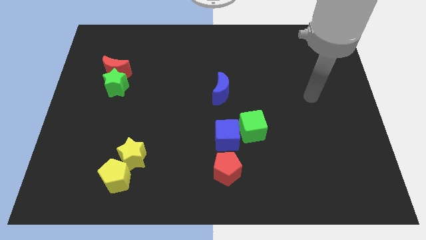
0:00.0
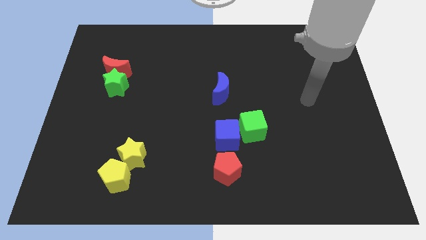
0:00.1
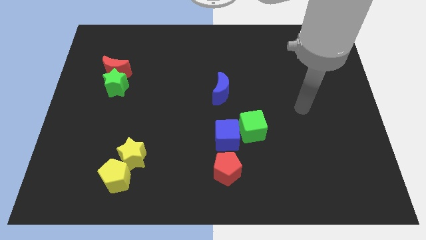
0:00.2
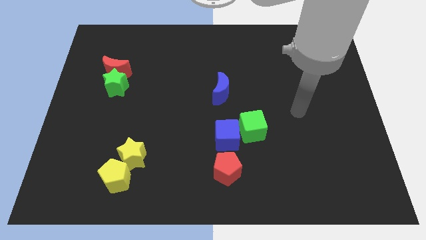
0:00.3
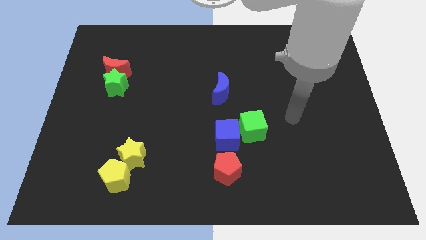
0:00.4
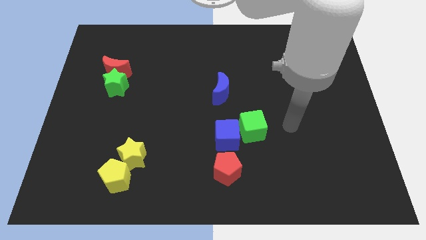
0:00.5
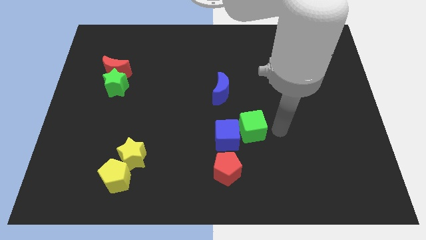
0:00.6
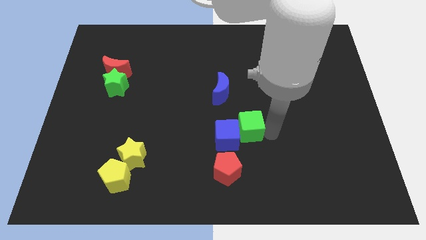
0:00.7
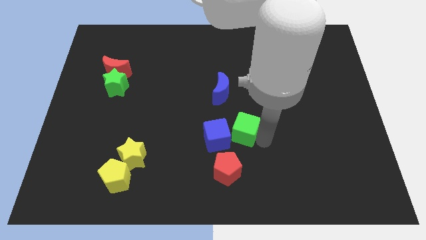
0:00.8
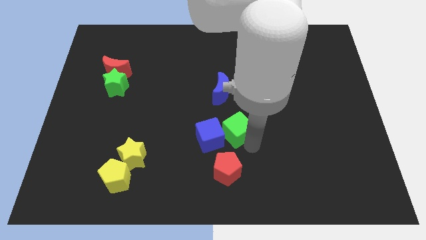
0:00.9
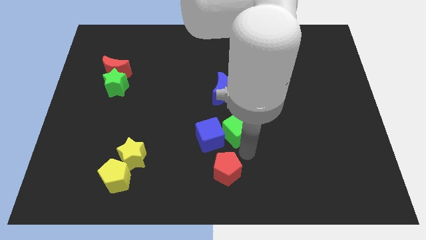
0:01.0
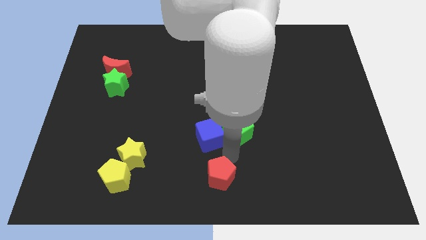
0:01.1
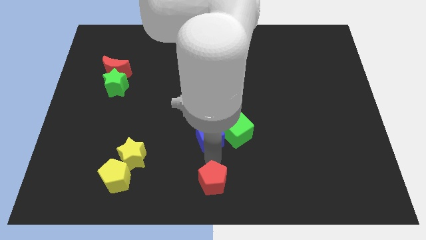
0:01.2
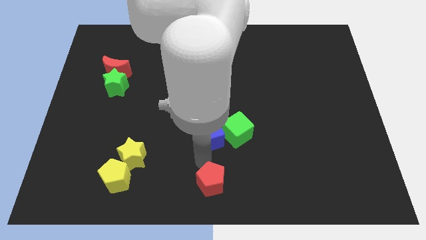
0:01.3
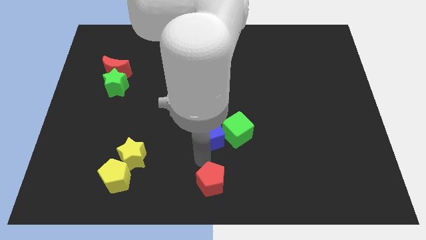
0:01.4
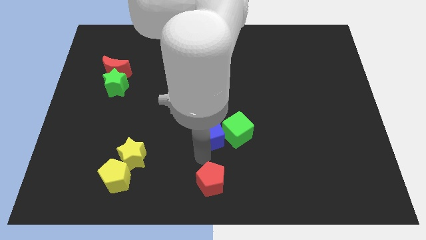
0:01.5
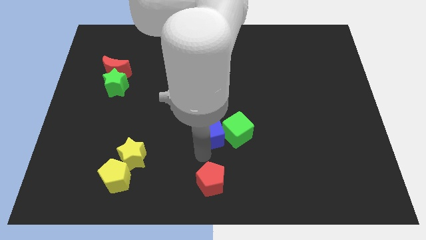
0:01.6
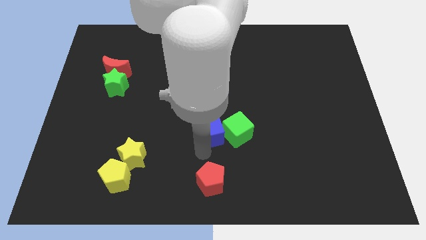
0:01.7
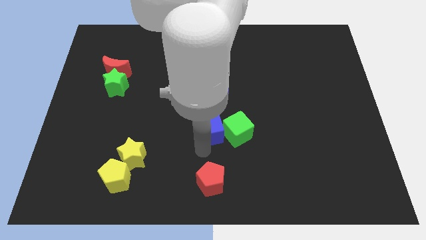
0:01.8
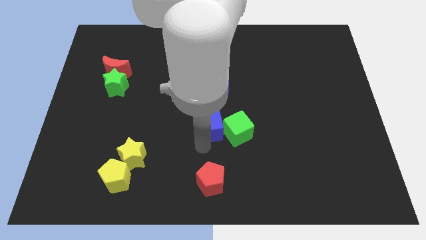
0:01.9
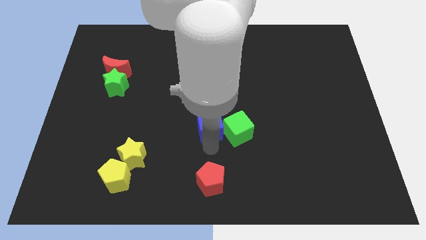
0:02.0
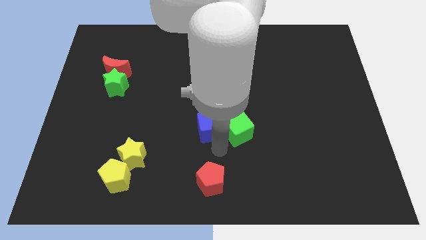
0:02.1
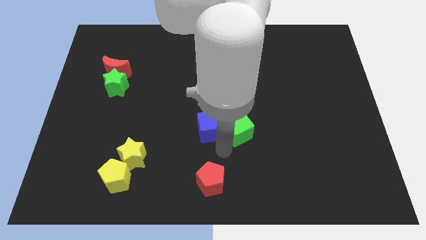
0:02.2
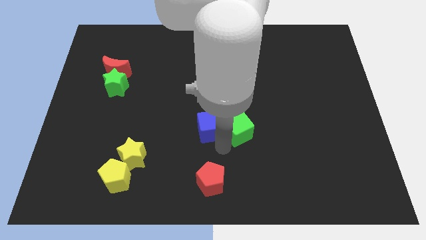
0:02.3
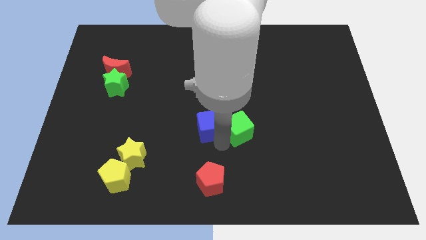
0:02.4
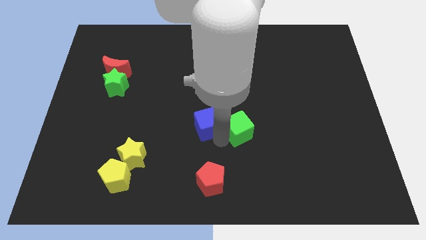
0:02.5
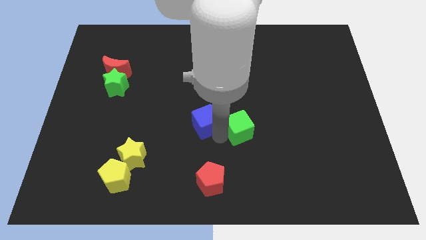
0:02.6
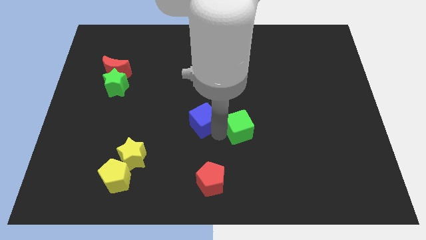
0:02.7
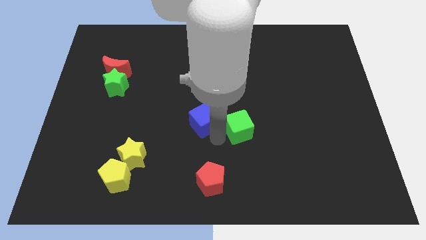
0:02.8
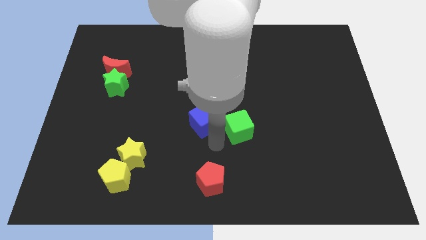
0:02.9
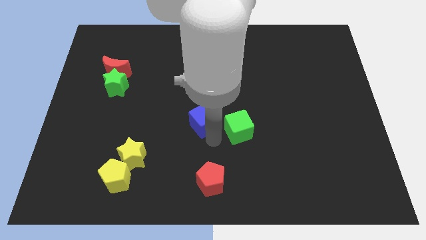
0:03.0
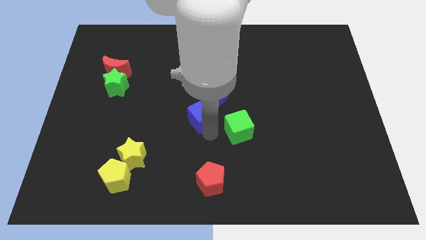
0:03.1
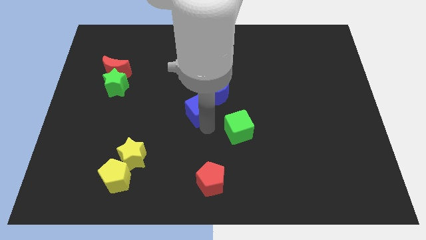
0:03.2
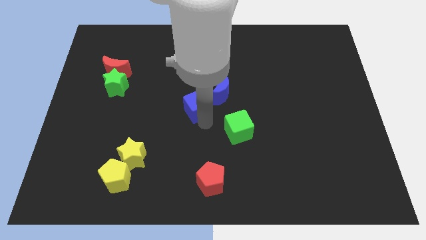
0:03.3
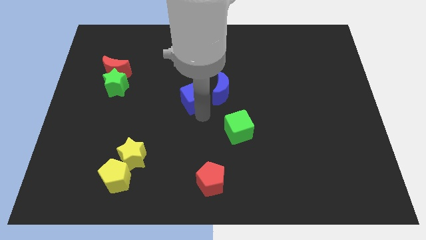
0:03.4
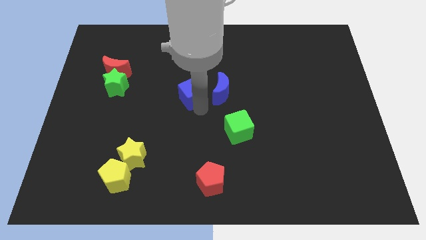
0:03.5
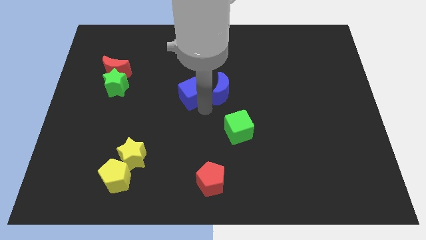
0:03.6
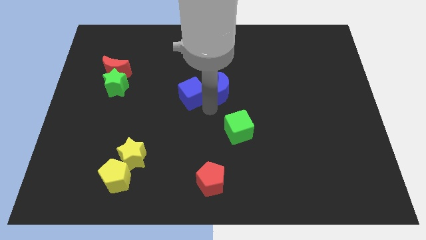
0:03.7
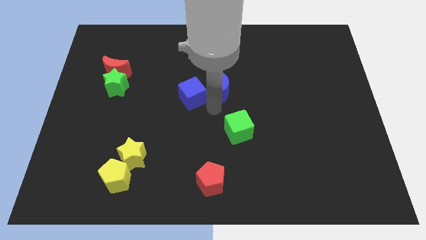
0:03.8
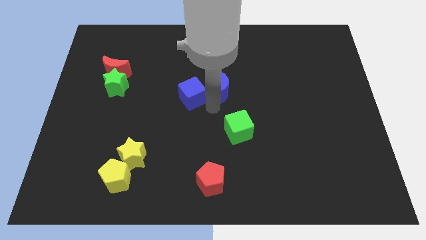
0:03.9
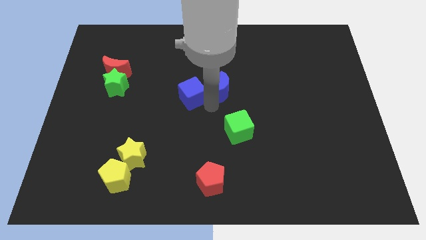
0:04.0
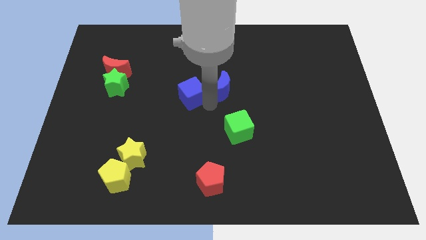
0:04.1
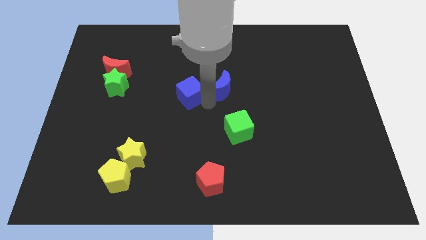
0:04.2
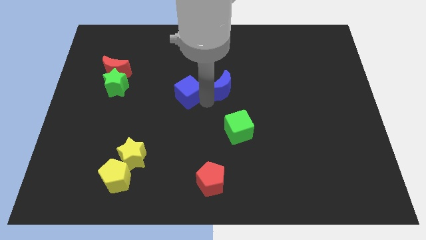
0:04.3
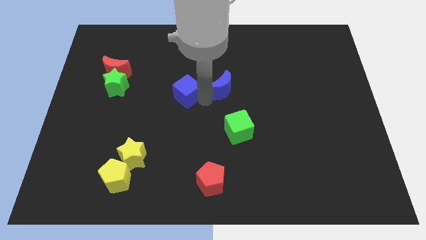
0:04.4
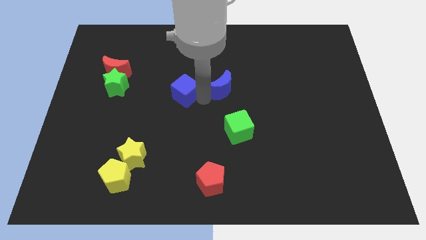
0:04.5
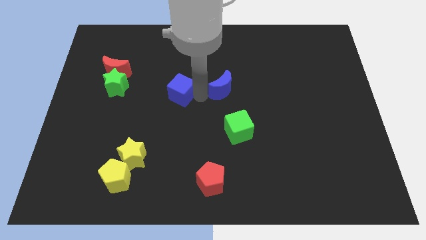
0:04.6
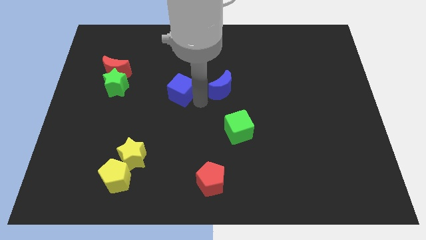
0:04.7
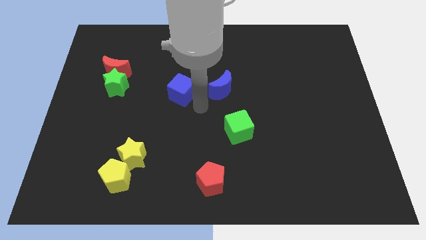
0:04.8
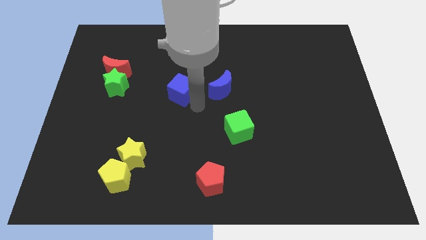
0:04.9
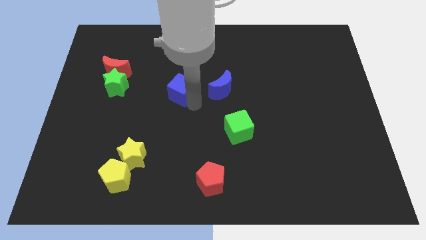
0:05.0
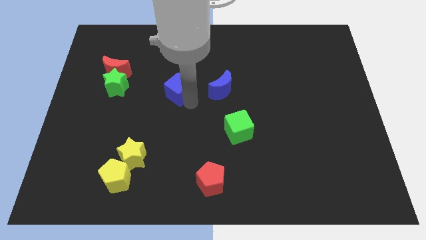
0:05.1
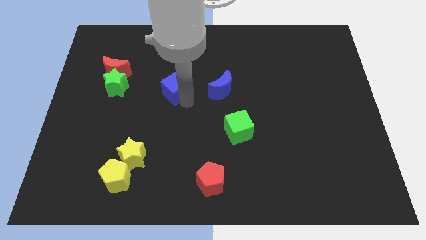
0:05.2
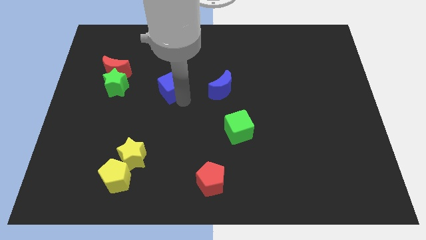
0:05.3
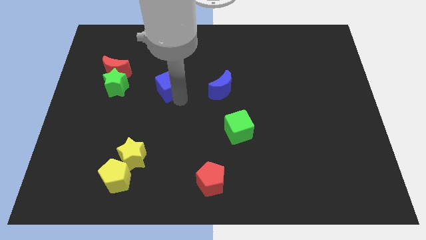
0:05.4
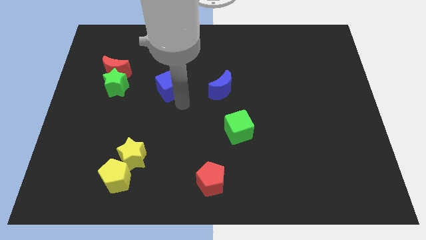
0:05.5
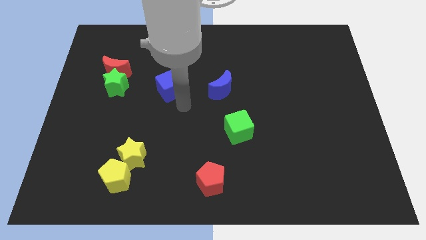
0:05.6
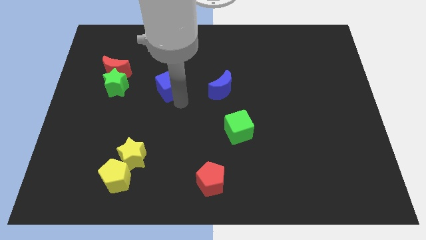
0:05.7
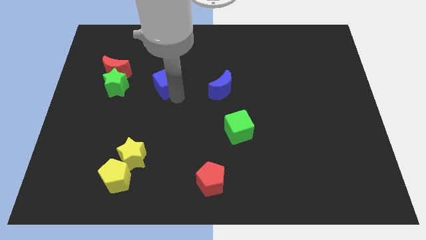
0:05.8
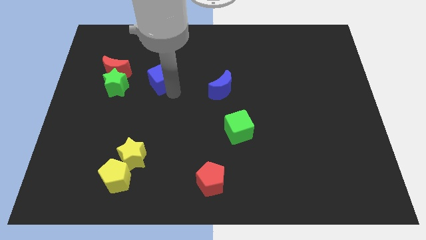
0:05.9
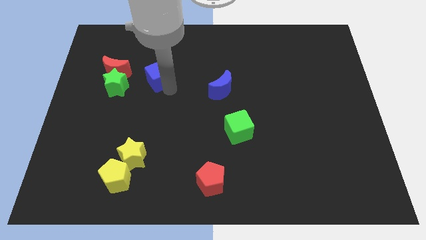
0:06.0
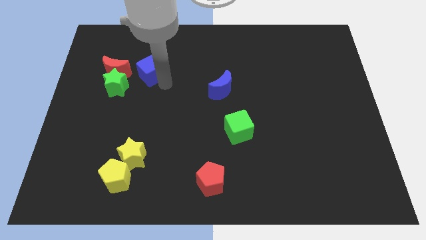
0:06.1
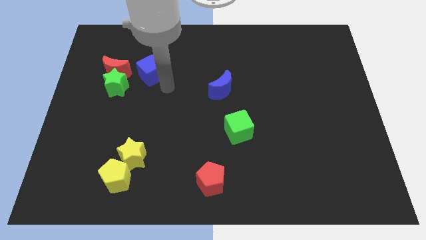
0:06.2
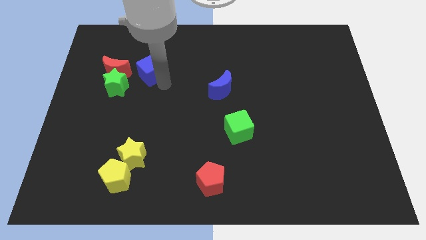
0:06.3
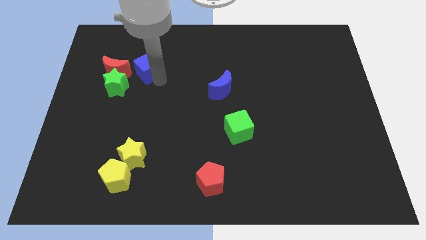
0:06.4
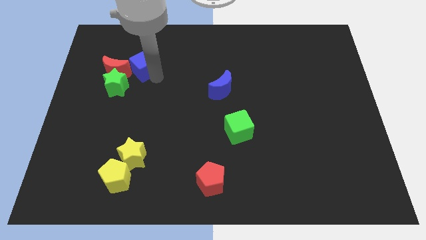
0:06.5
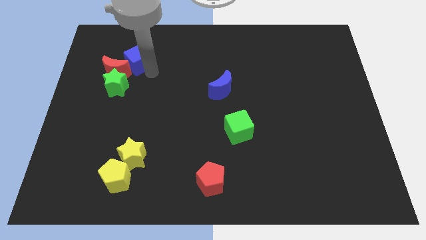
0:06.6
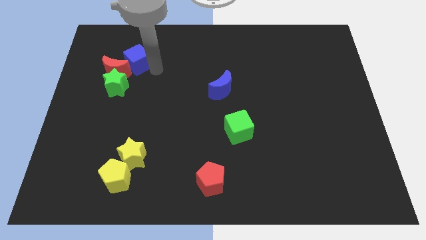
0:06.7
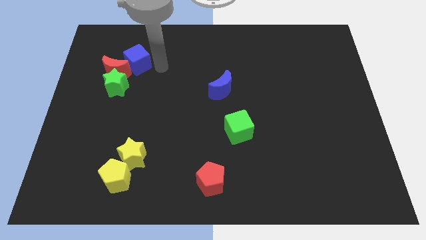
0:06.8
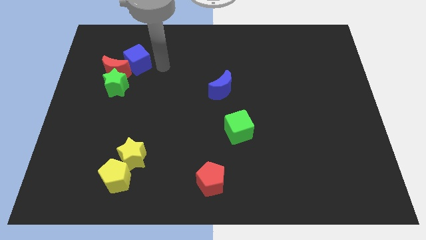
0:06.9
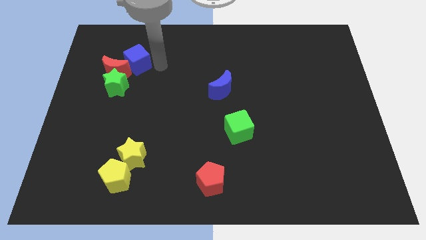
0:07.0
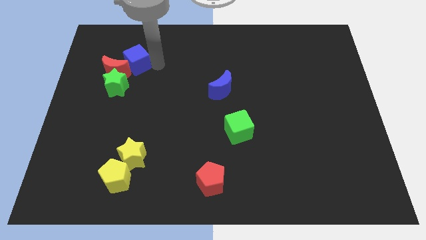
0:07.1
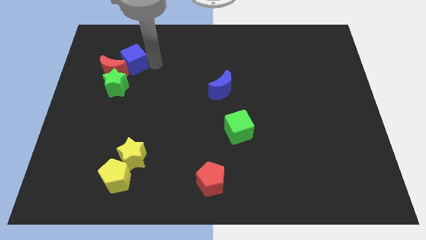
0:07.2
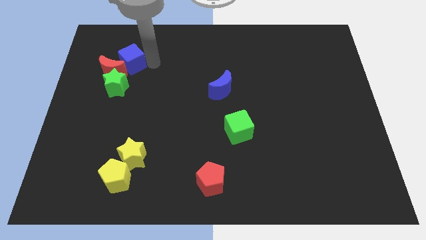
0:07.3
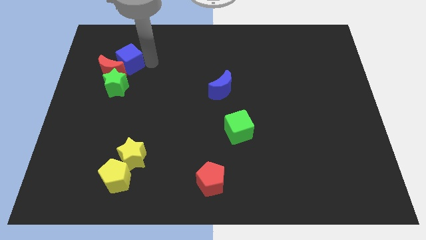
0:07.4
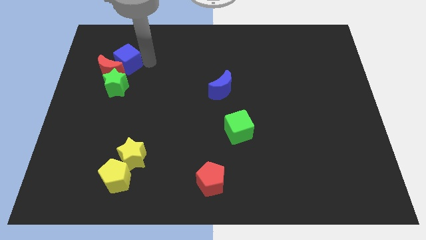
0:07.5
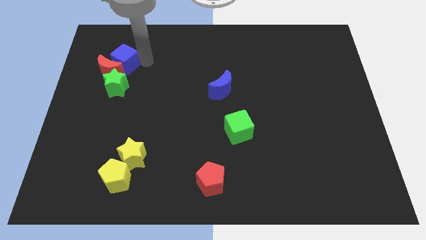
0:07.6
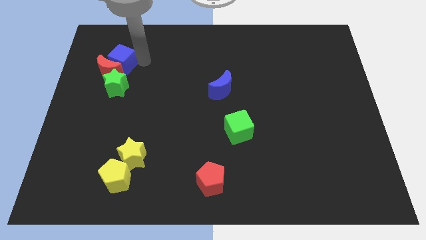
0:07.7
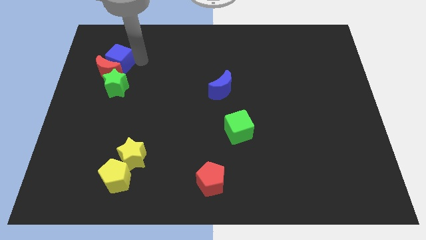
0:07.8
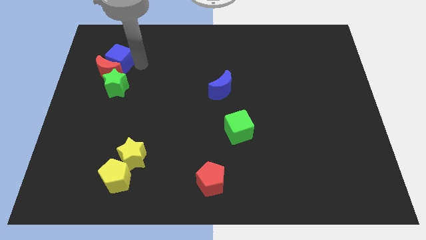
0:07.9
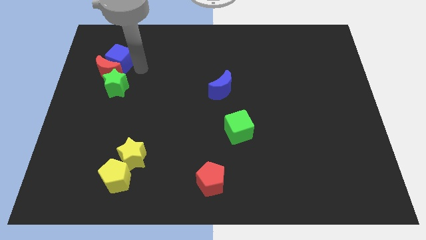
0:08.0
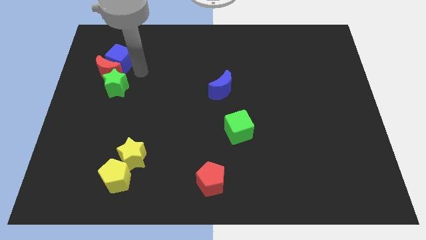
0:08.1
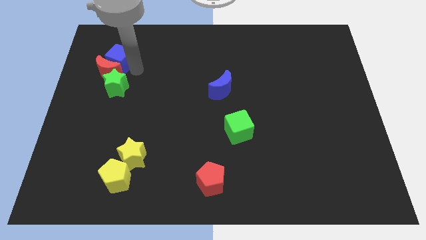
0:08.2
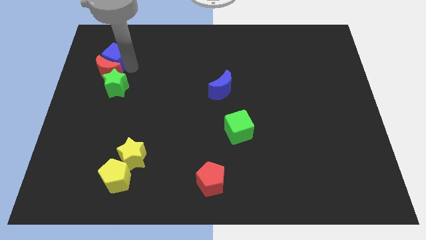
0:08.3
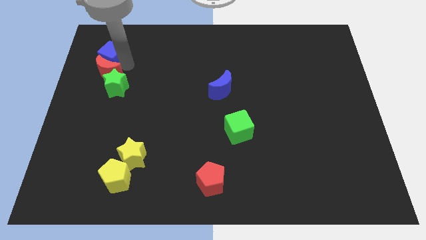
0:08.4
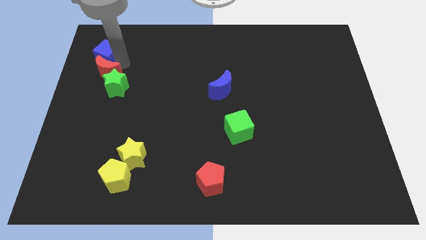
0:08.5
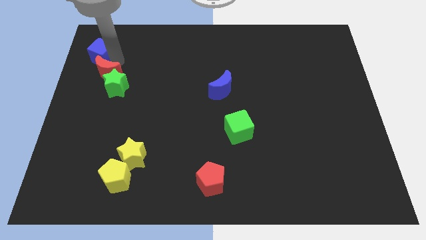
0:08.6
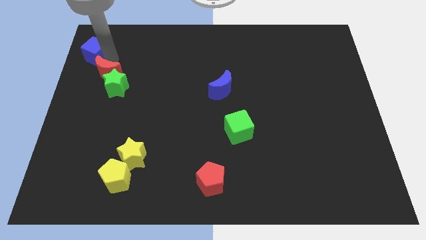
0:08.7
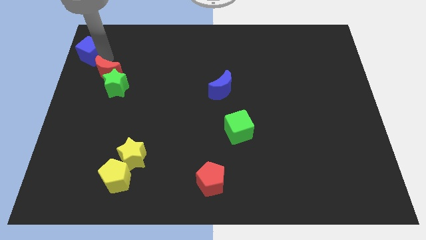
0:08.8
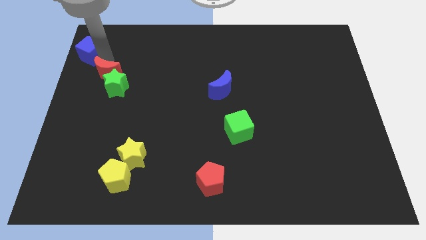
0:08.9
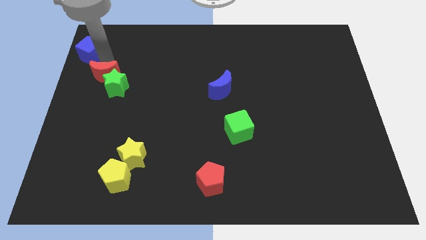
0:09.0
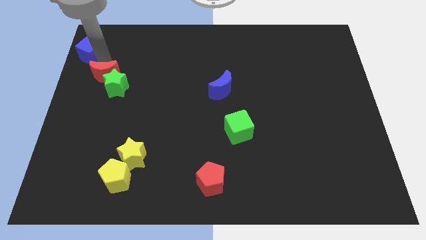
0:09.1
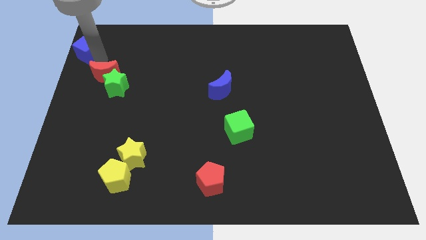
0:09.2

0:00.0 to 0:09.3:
push the blue cube to the upper left corner
